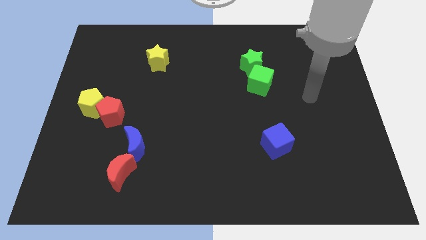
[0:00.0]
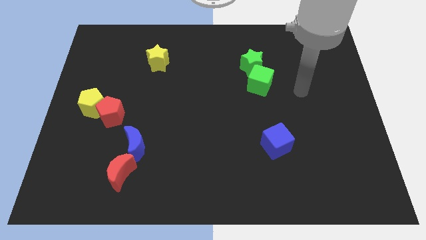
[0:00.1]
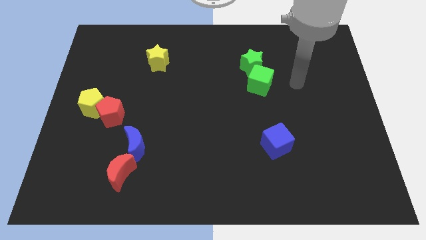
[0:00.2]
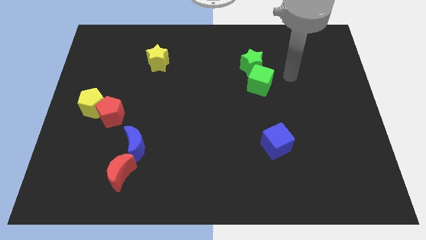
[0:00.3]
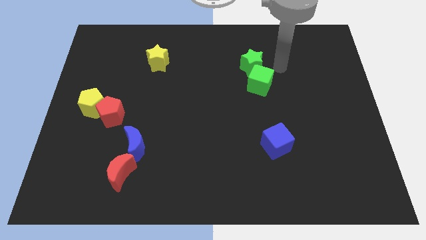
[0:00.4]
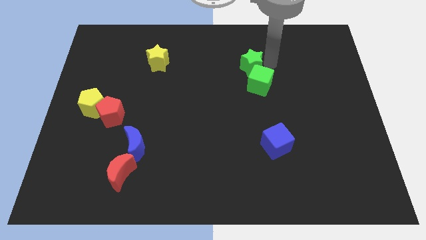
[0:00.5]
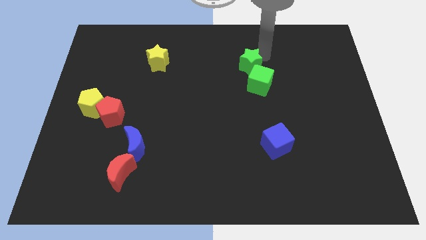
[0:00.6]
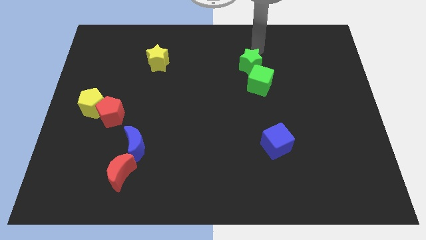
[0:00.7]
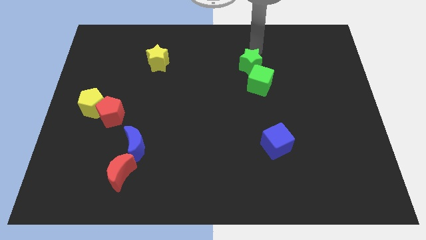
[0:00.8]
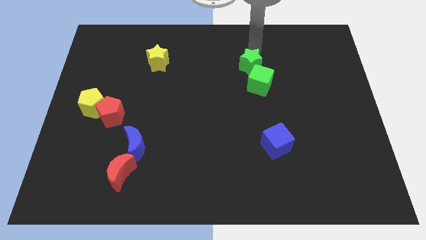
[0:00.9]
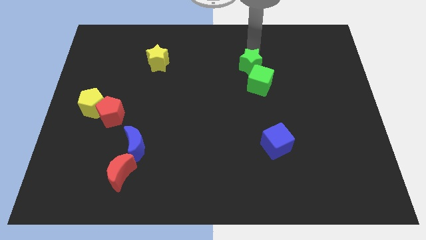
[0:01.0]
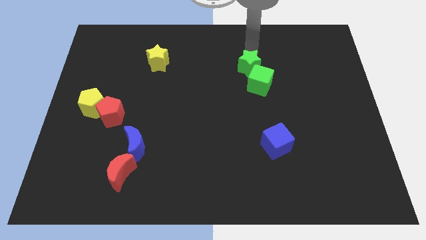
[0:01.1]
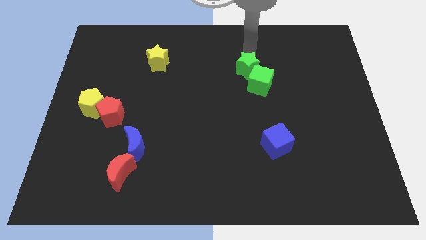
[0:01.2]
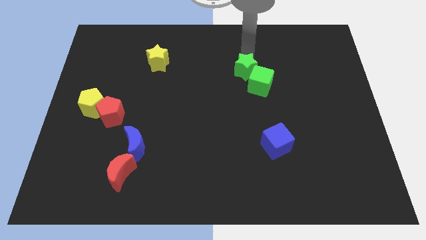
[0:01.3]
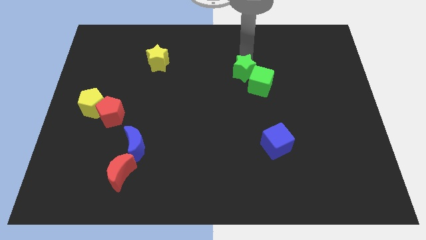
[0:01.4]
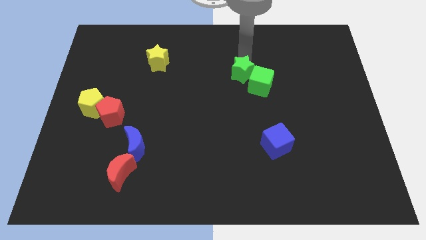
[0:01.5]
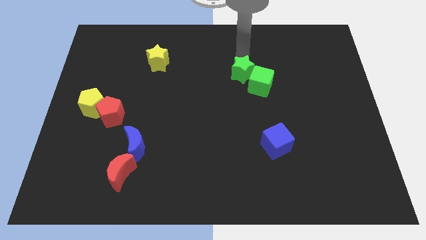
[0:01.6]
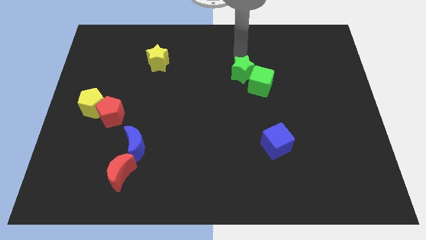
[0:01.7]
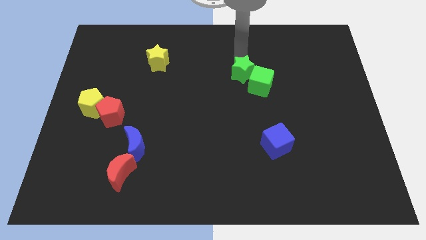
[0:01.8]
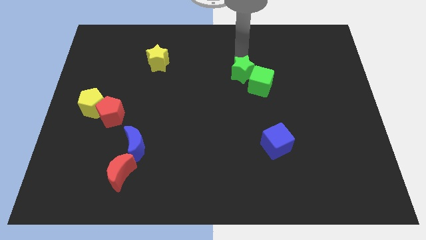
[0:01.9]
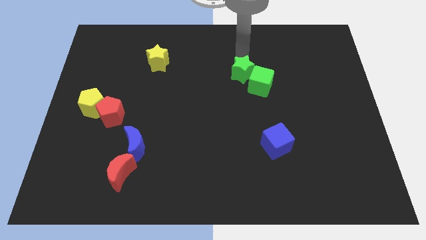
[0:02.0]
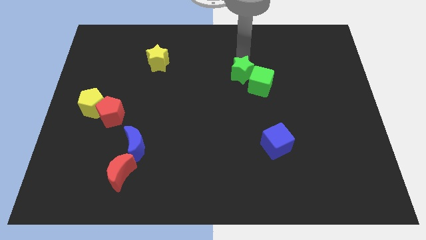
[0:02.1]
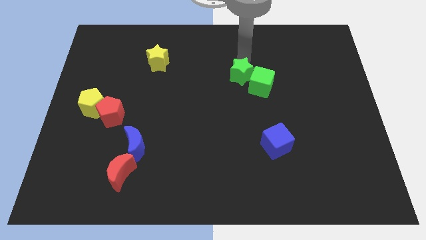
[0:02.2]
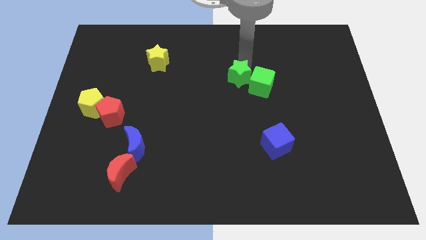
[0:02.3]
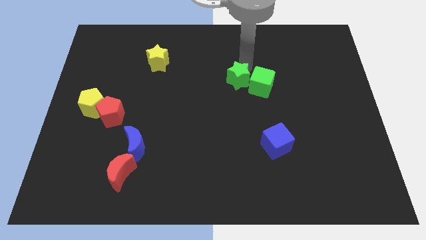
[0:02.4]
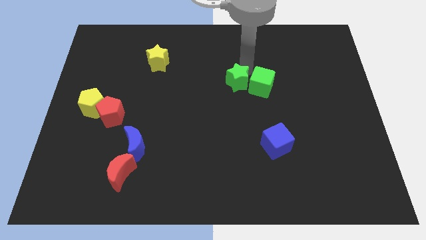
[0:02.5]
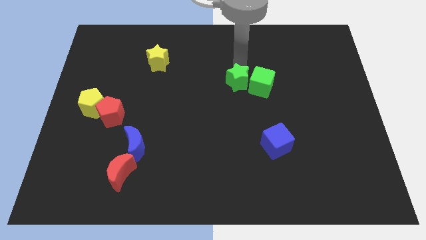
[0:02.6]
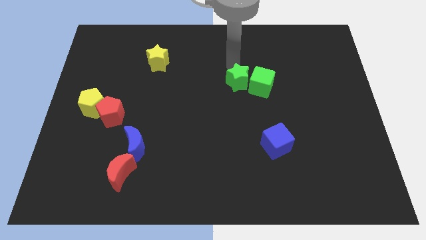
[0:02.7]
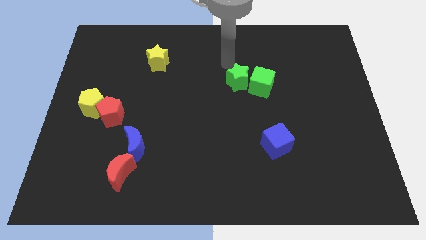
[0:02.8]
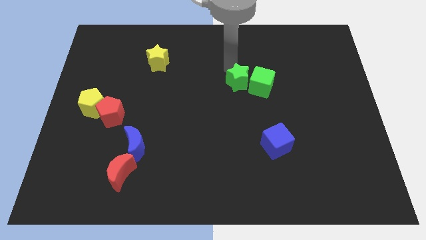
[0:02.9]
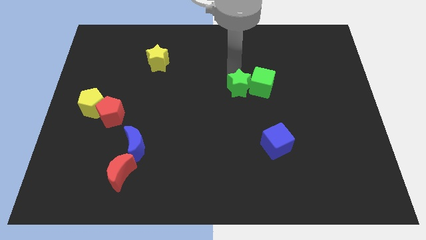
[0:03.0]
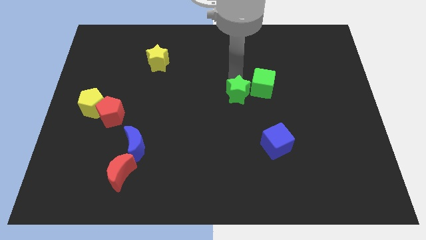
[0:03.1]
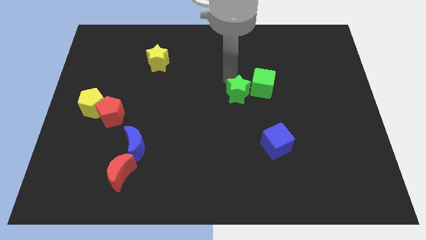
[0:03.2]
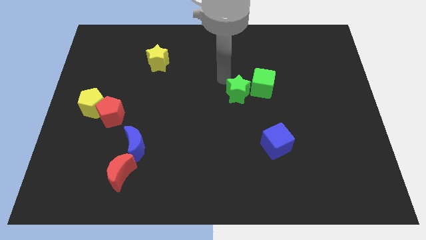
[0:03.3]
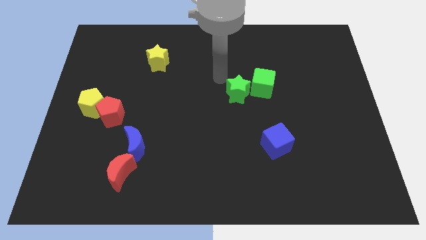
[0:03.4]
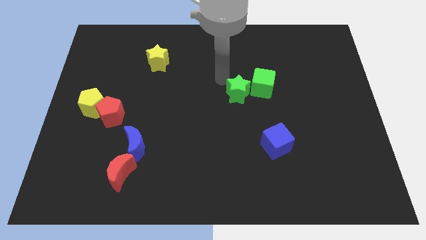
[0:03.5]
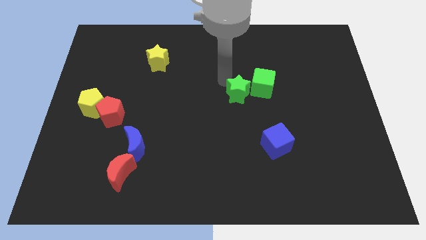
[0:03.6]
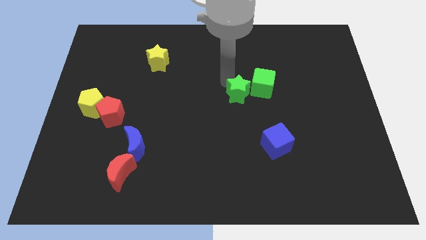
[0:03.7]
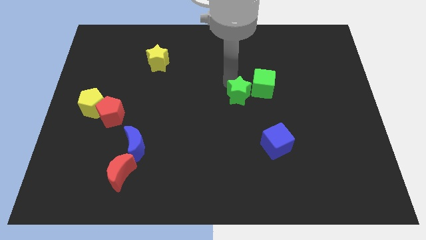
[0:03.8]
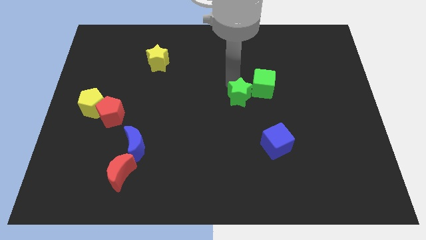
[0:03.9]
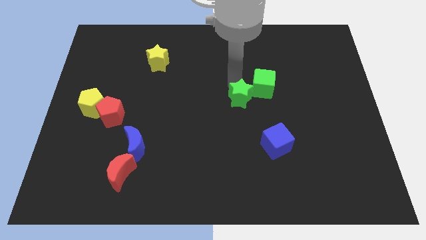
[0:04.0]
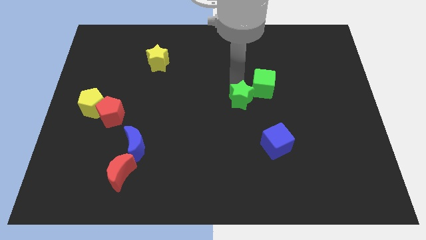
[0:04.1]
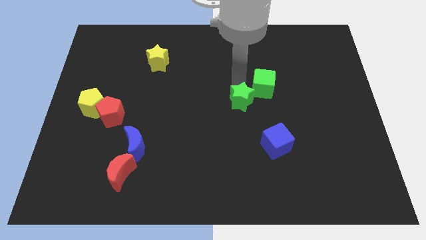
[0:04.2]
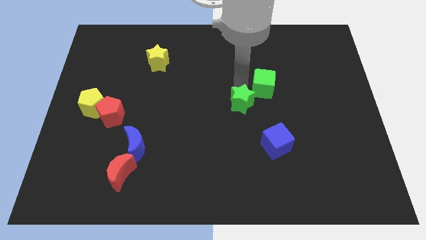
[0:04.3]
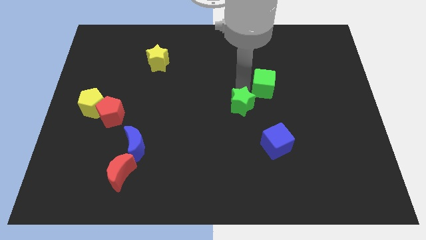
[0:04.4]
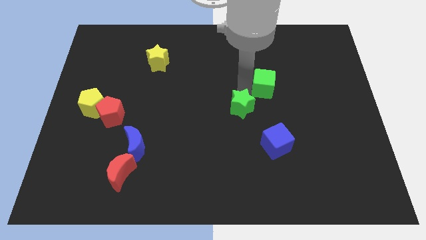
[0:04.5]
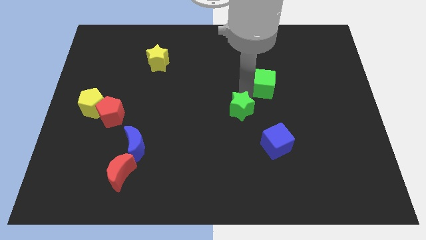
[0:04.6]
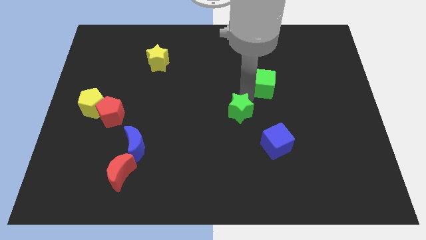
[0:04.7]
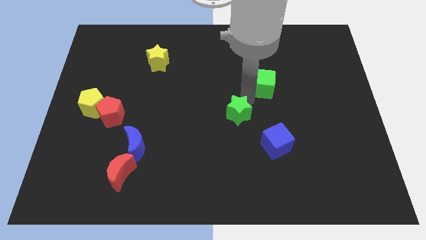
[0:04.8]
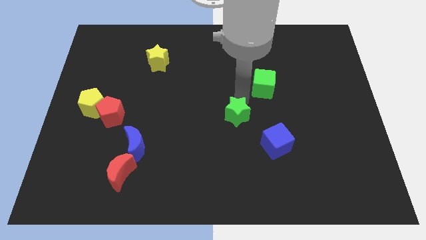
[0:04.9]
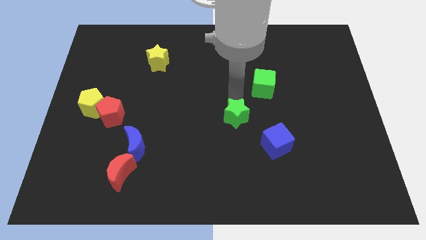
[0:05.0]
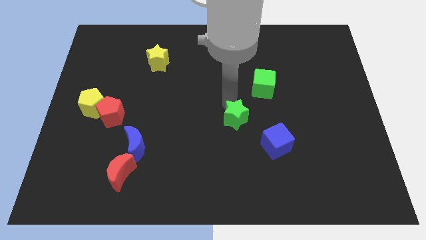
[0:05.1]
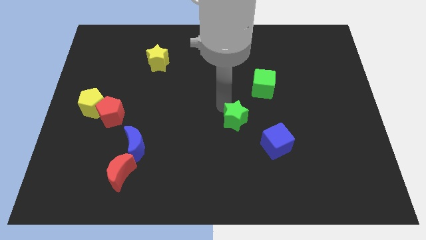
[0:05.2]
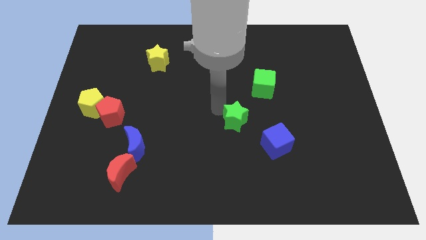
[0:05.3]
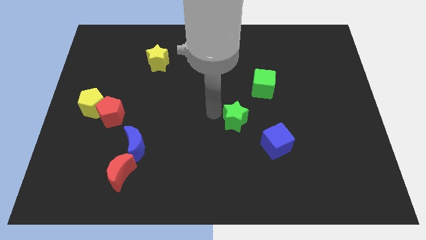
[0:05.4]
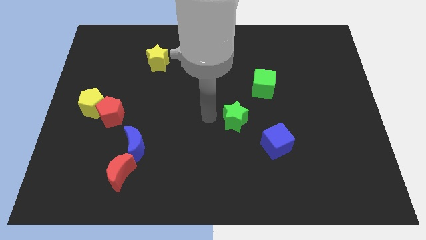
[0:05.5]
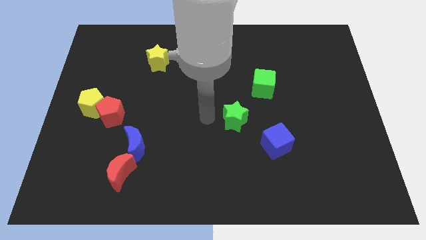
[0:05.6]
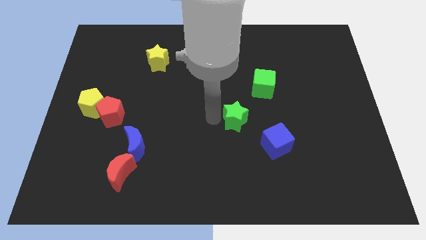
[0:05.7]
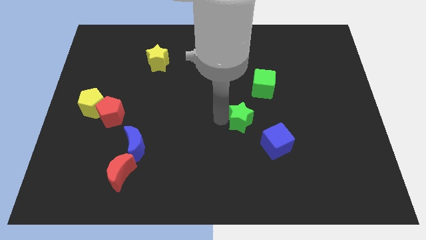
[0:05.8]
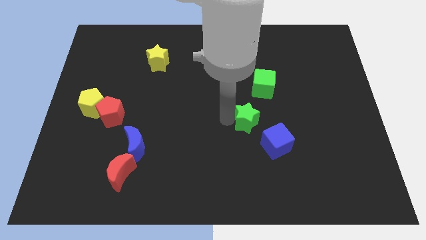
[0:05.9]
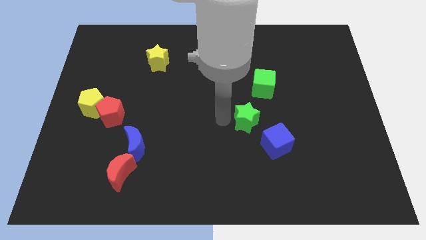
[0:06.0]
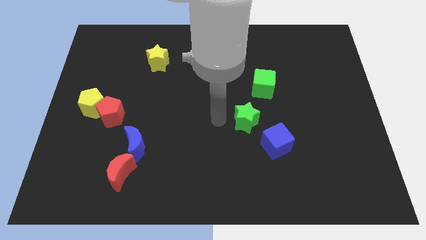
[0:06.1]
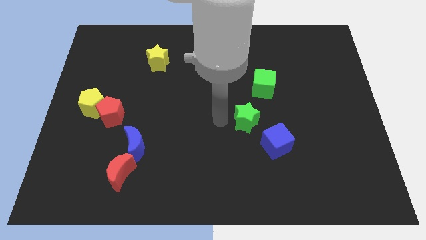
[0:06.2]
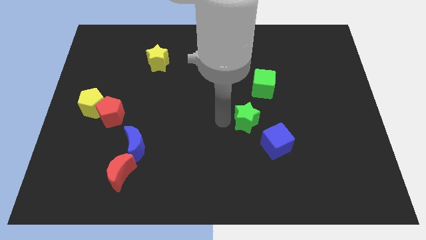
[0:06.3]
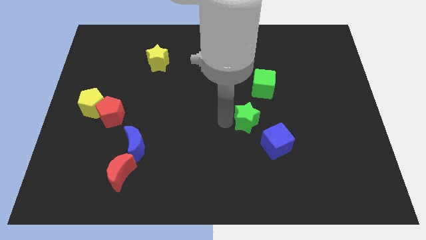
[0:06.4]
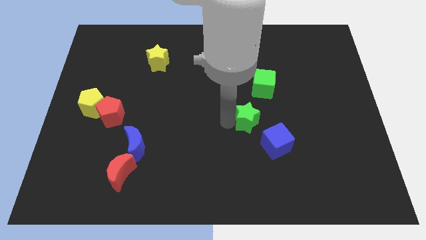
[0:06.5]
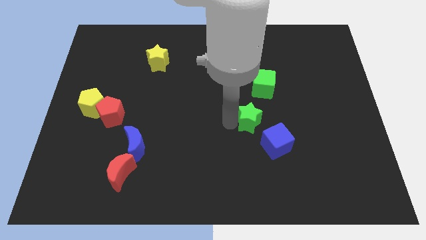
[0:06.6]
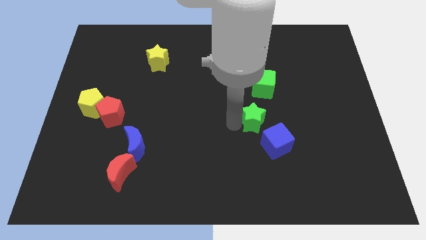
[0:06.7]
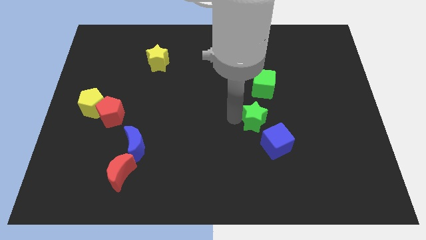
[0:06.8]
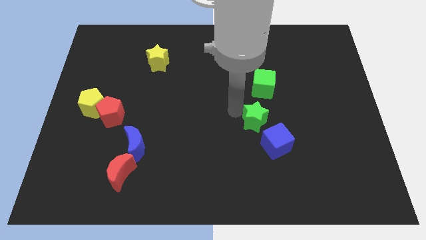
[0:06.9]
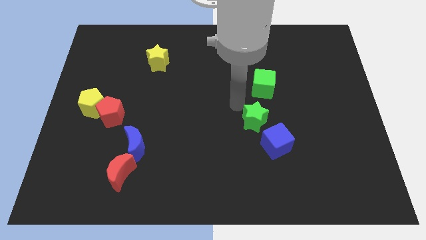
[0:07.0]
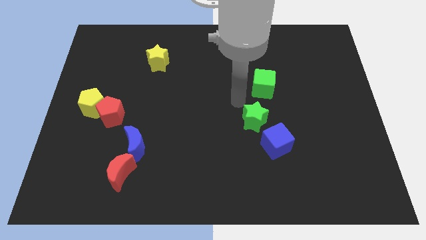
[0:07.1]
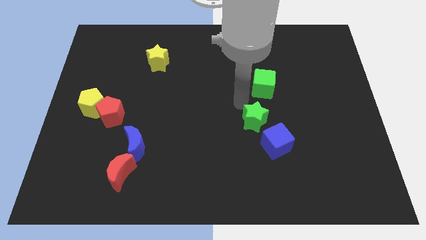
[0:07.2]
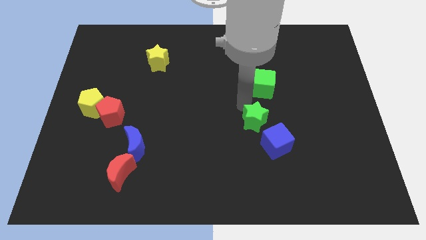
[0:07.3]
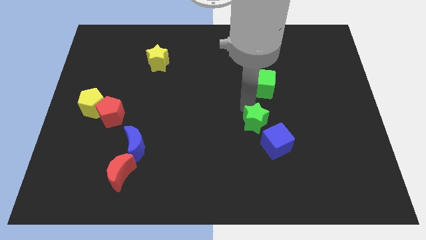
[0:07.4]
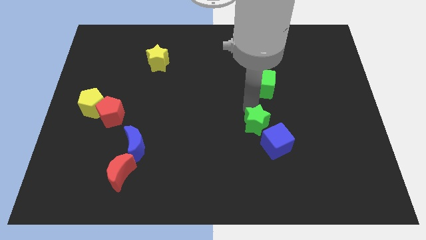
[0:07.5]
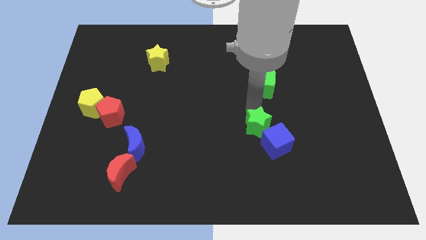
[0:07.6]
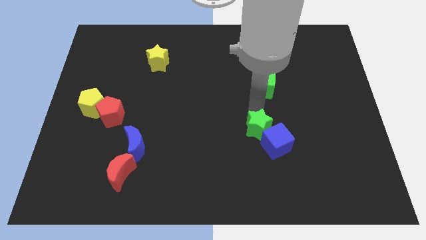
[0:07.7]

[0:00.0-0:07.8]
push the green star next to the blue cube
